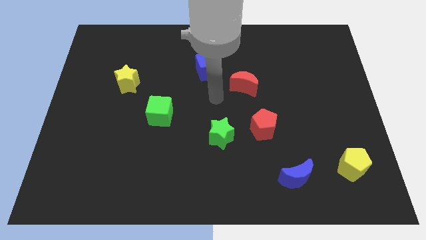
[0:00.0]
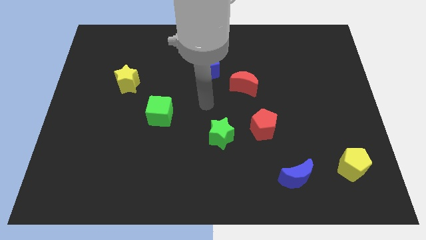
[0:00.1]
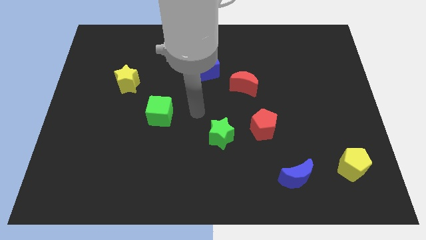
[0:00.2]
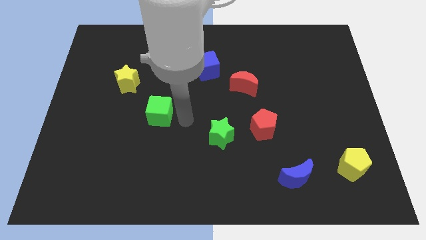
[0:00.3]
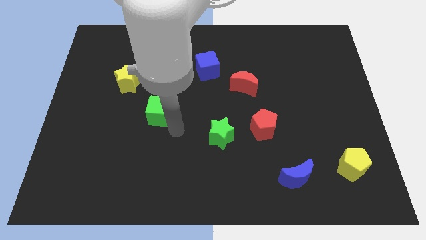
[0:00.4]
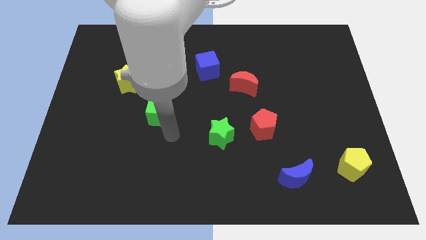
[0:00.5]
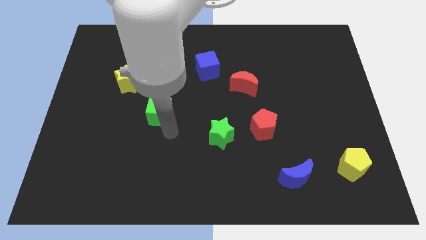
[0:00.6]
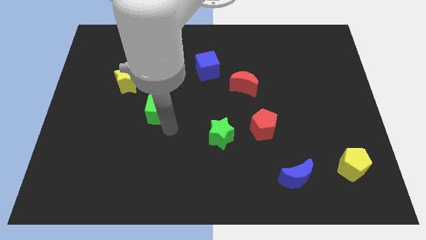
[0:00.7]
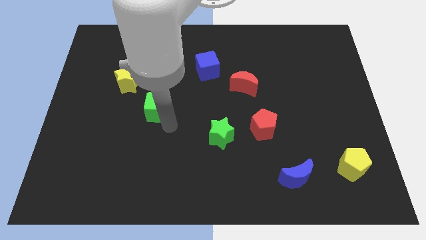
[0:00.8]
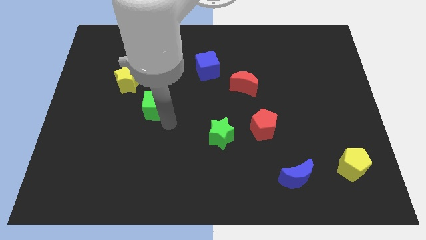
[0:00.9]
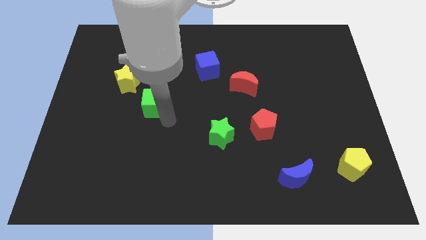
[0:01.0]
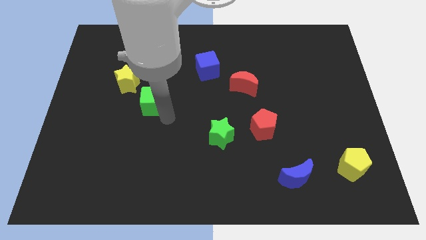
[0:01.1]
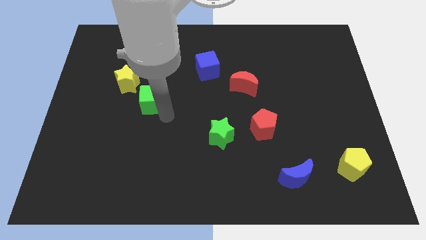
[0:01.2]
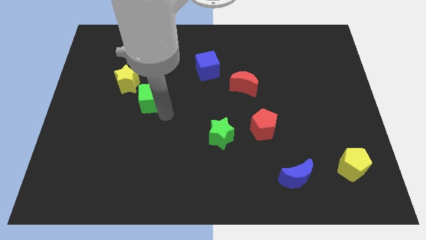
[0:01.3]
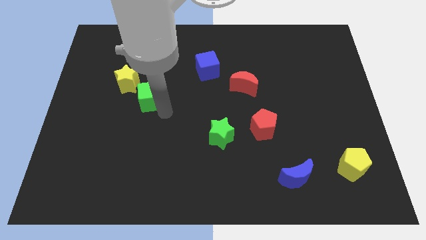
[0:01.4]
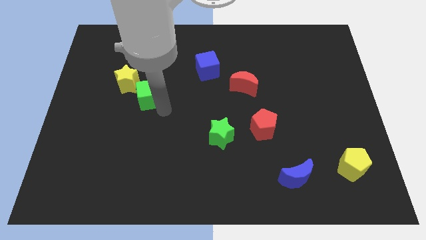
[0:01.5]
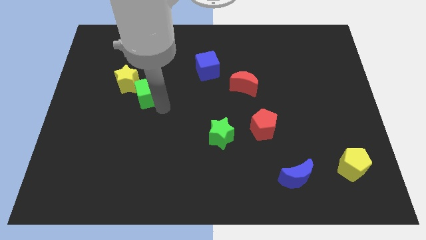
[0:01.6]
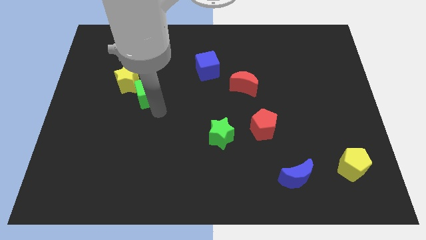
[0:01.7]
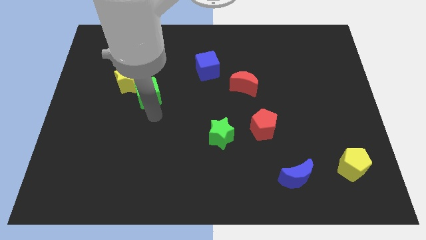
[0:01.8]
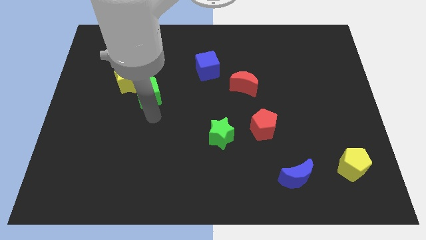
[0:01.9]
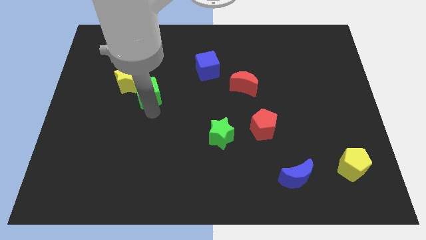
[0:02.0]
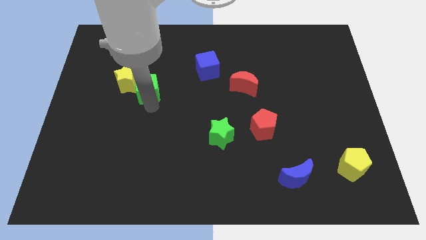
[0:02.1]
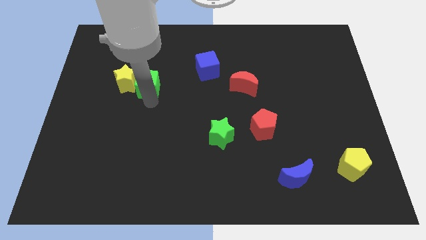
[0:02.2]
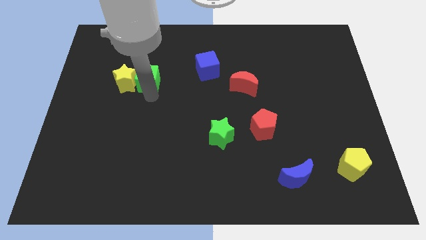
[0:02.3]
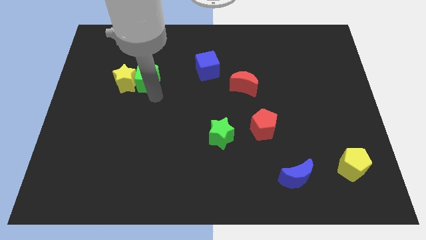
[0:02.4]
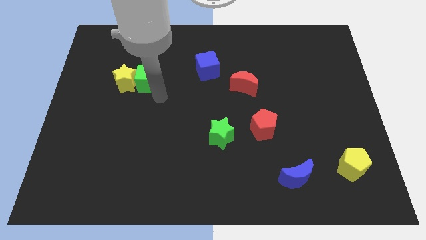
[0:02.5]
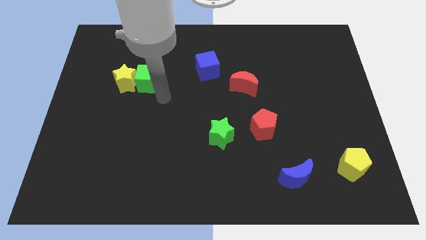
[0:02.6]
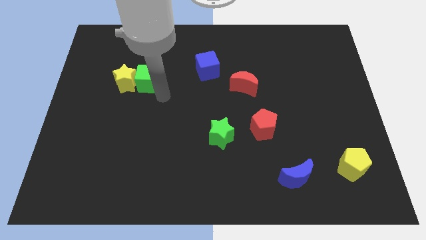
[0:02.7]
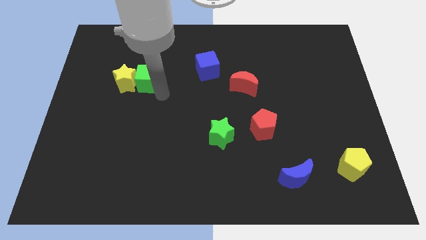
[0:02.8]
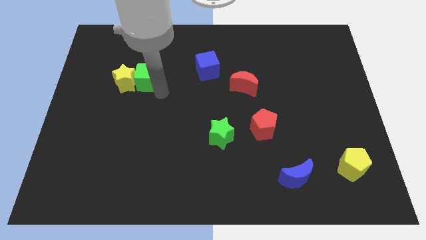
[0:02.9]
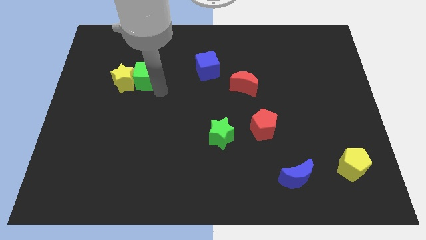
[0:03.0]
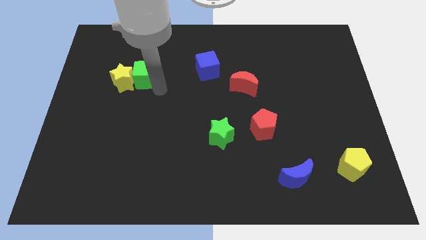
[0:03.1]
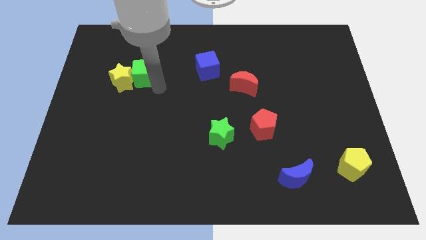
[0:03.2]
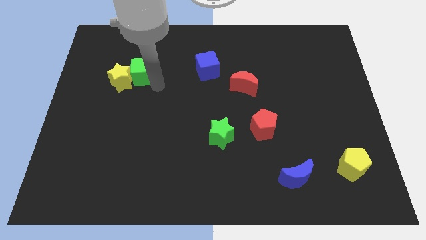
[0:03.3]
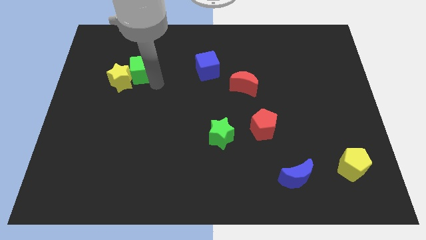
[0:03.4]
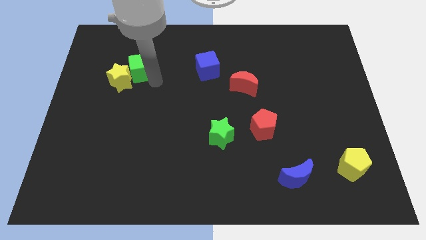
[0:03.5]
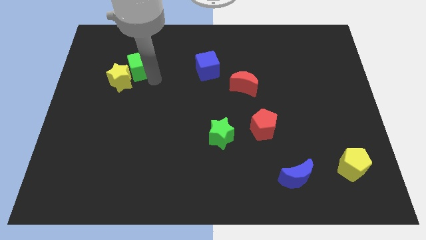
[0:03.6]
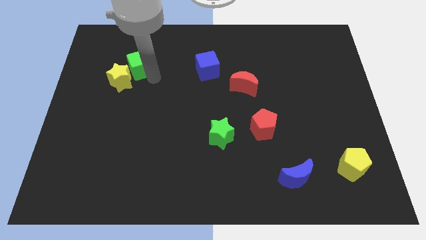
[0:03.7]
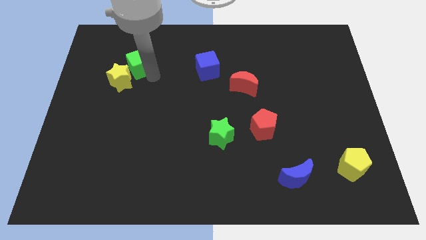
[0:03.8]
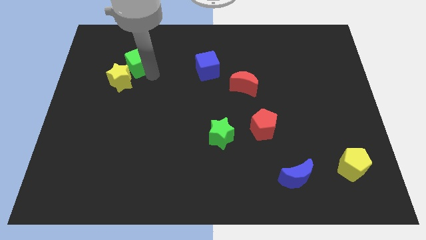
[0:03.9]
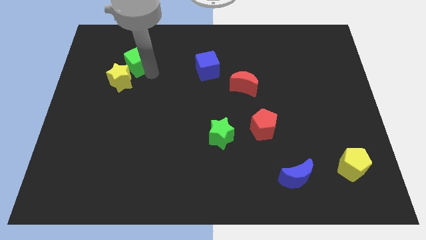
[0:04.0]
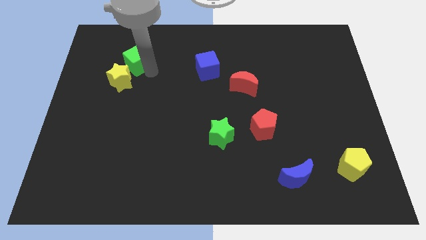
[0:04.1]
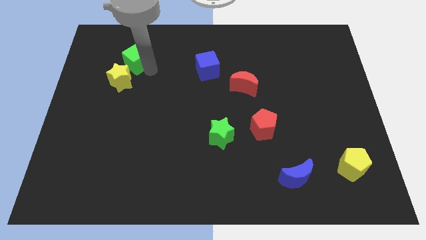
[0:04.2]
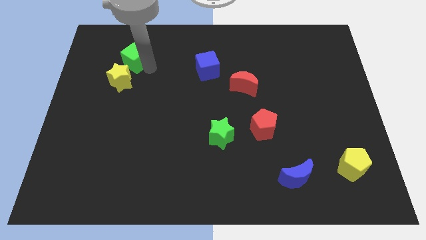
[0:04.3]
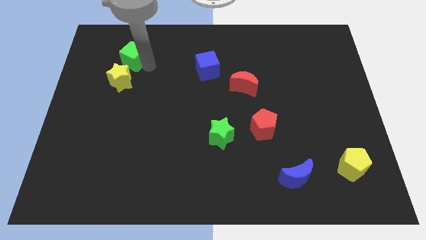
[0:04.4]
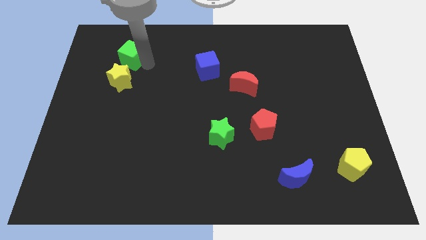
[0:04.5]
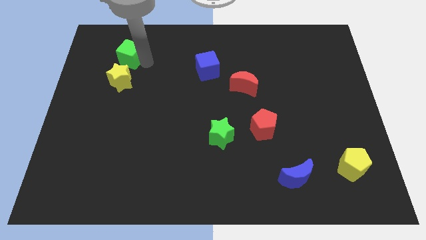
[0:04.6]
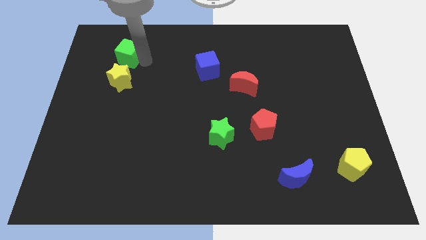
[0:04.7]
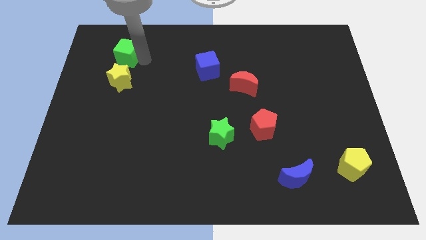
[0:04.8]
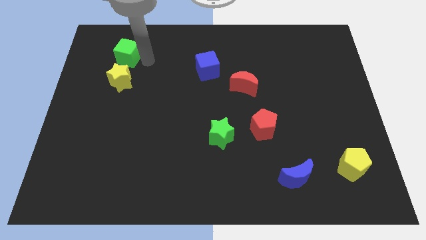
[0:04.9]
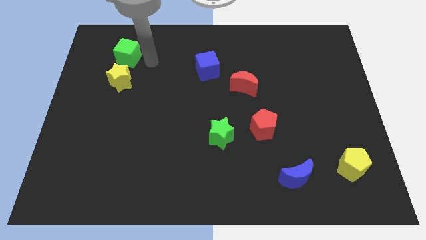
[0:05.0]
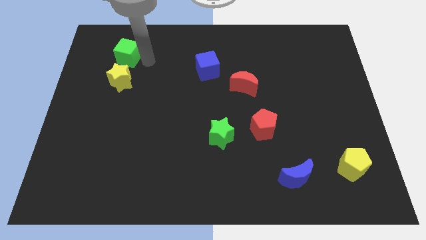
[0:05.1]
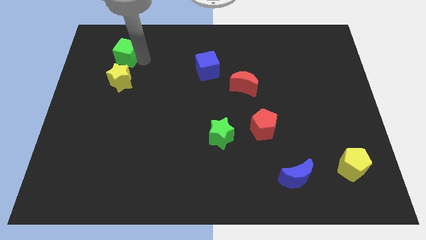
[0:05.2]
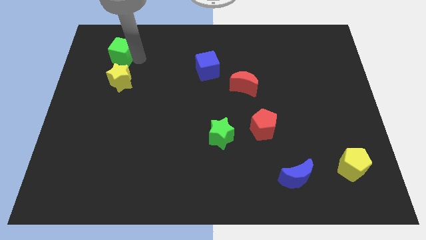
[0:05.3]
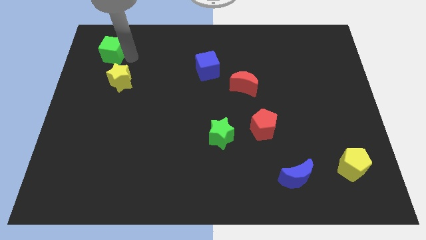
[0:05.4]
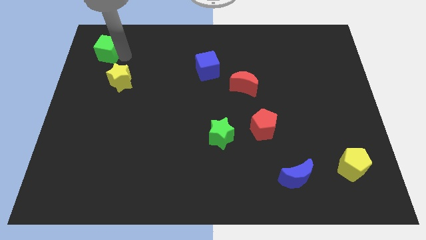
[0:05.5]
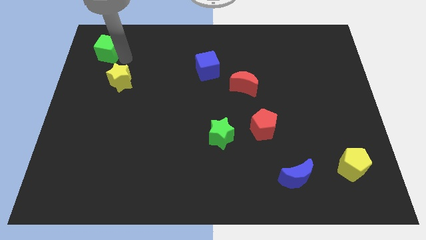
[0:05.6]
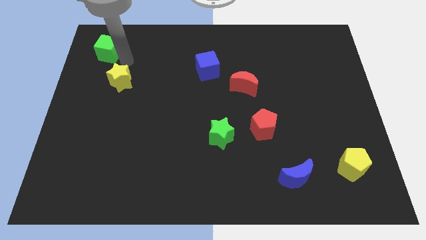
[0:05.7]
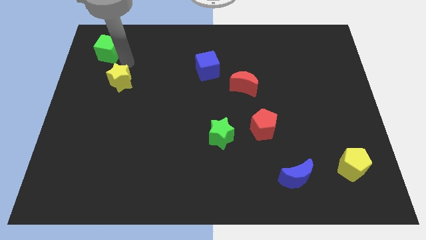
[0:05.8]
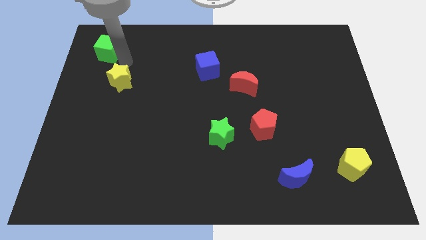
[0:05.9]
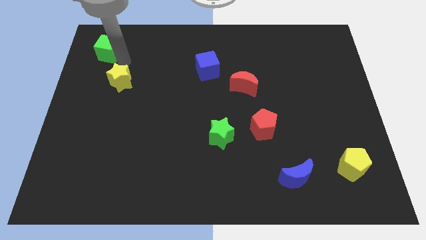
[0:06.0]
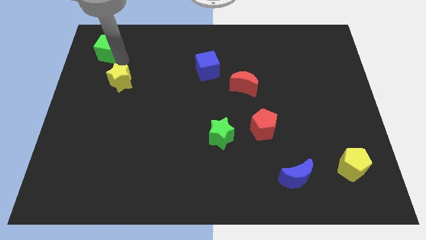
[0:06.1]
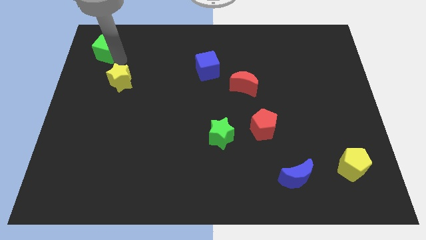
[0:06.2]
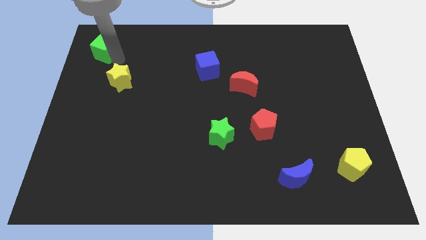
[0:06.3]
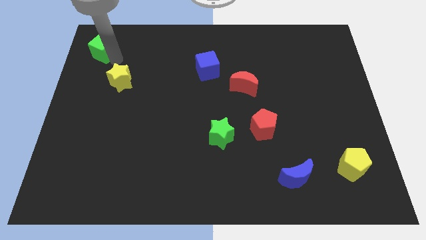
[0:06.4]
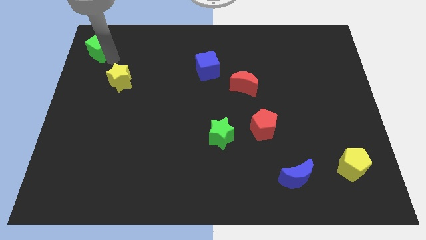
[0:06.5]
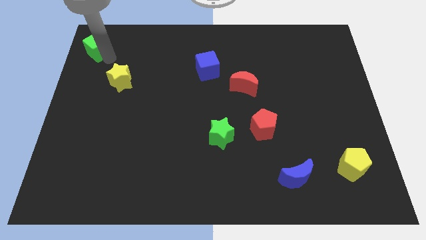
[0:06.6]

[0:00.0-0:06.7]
put the green cube to the top left corner
